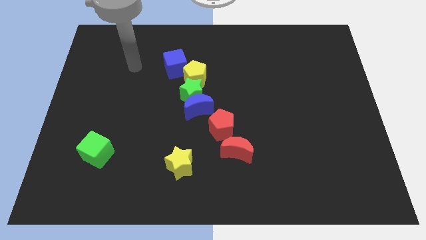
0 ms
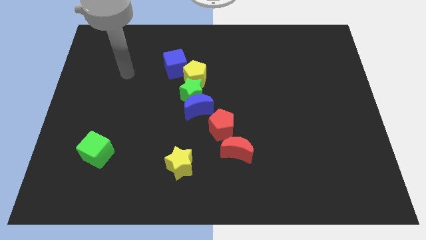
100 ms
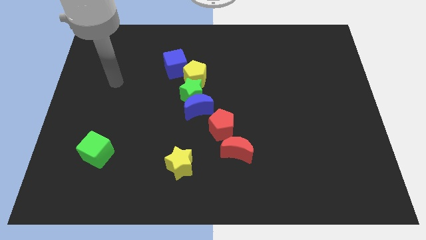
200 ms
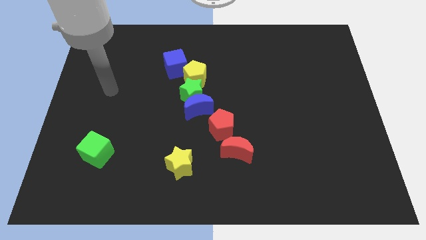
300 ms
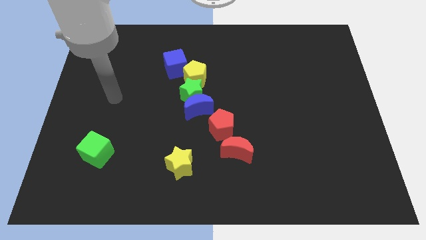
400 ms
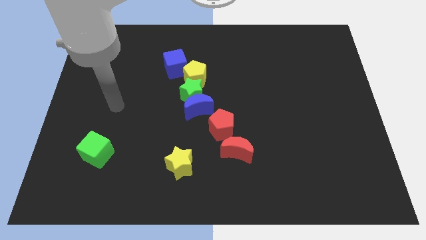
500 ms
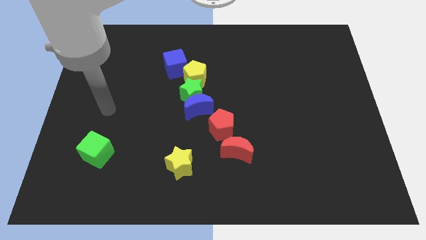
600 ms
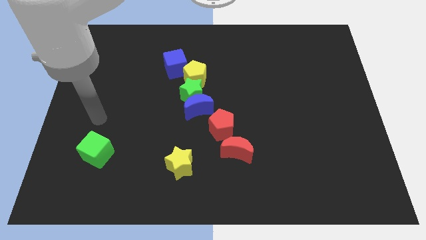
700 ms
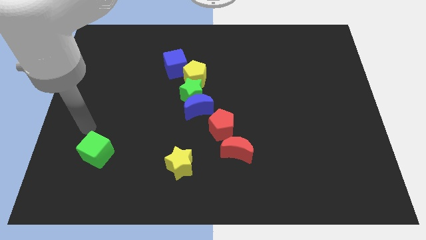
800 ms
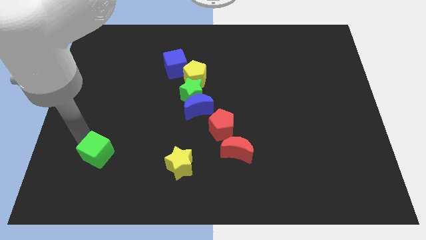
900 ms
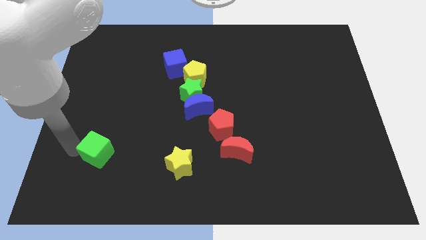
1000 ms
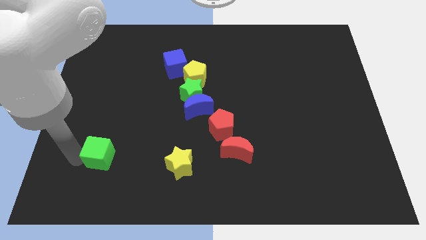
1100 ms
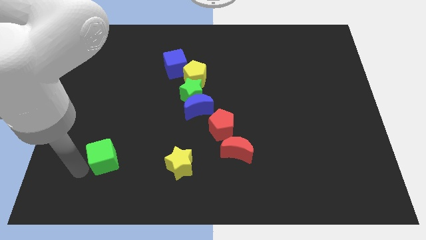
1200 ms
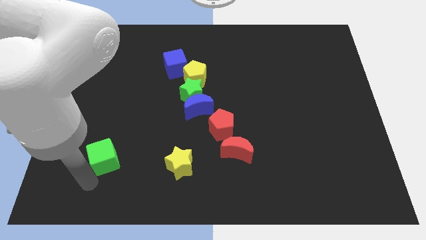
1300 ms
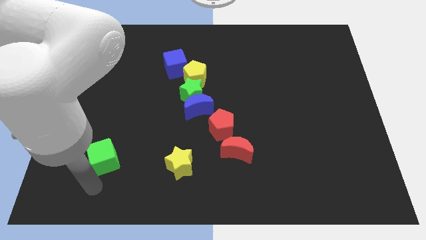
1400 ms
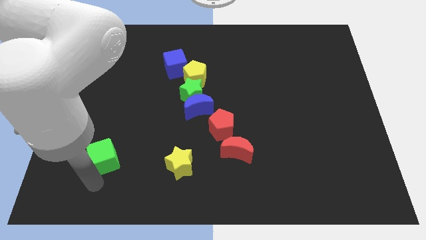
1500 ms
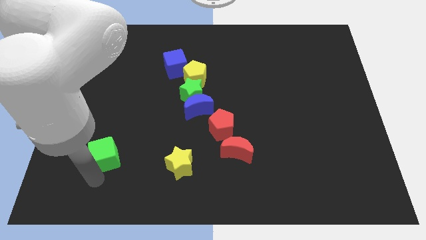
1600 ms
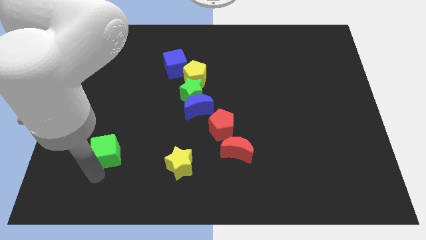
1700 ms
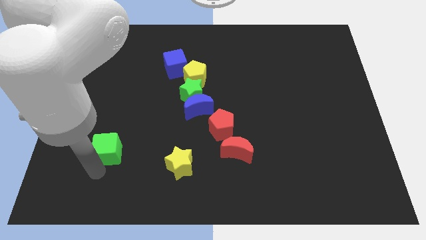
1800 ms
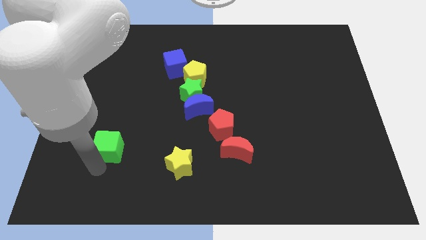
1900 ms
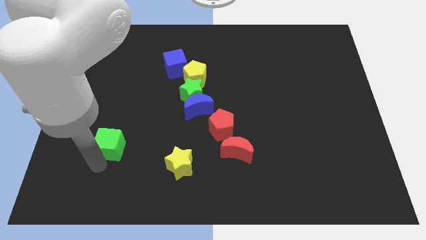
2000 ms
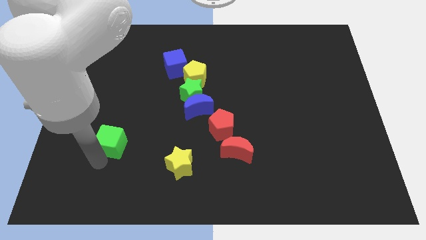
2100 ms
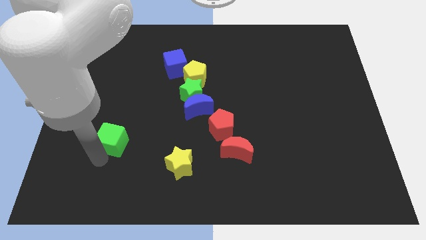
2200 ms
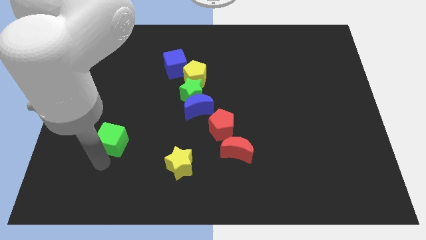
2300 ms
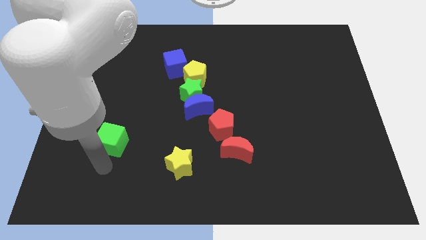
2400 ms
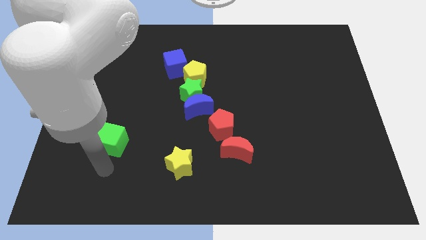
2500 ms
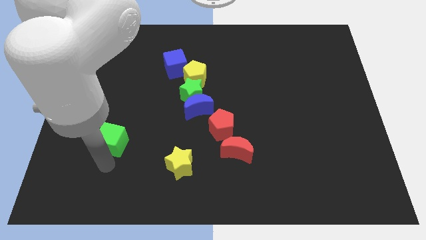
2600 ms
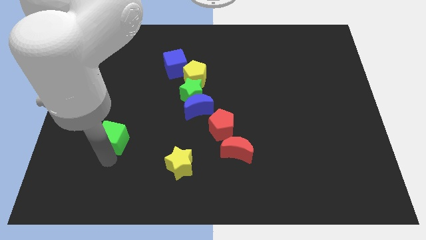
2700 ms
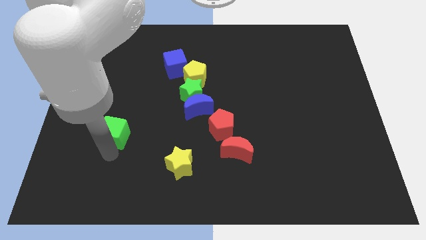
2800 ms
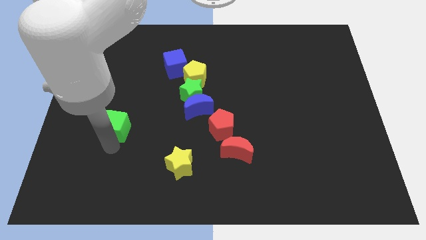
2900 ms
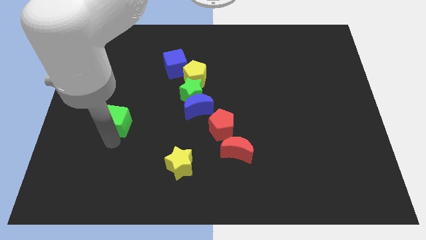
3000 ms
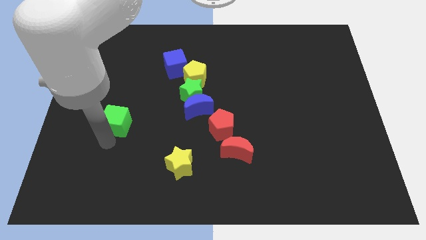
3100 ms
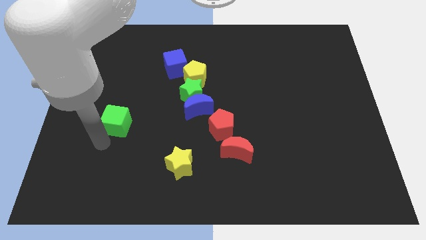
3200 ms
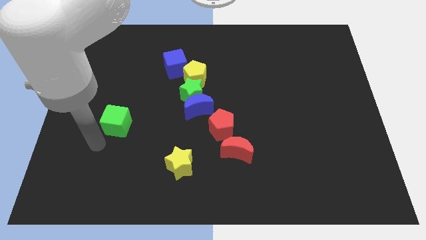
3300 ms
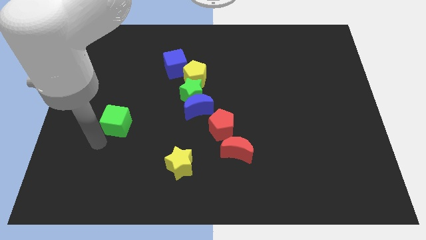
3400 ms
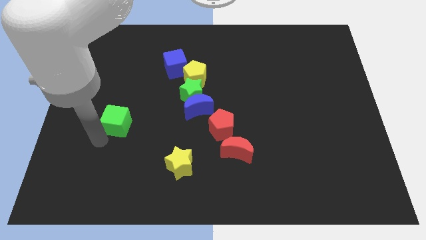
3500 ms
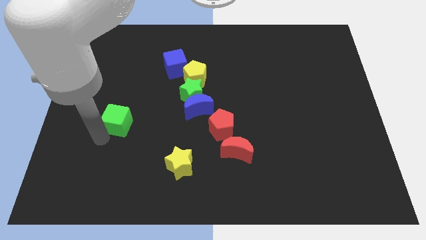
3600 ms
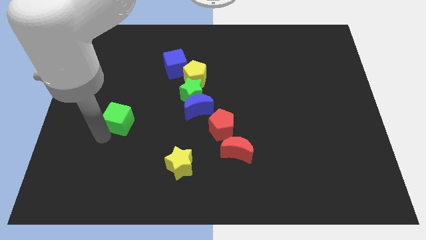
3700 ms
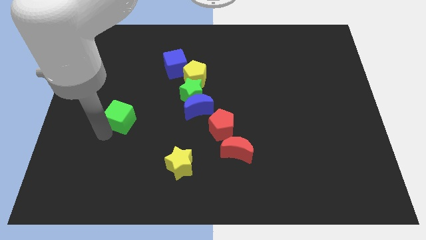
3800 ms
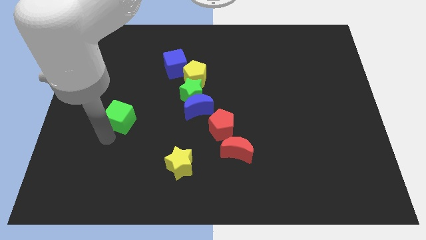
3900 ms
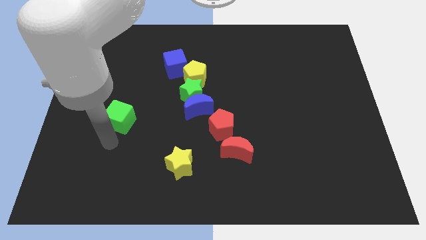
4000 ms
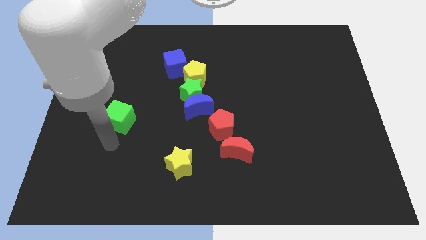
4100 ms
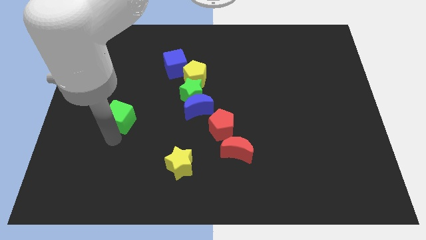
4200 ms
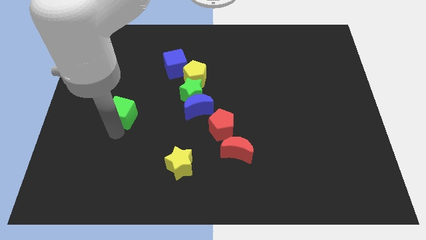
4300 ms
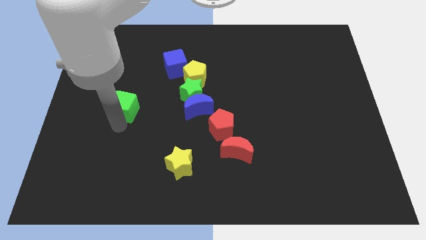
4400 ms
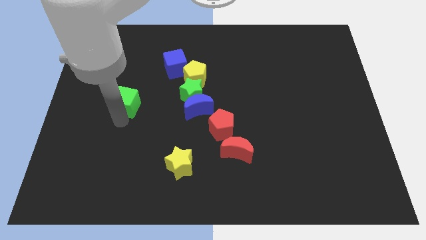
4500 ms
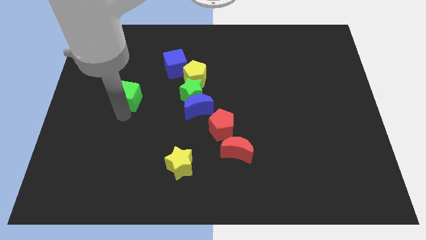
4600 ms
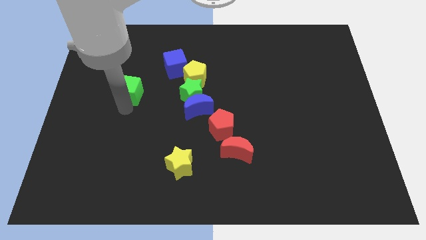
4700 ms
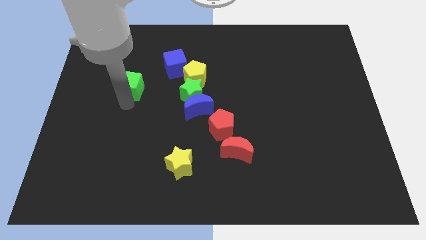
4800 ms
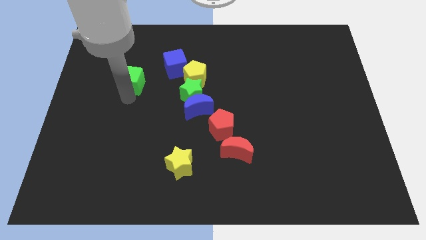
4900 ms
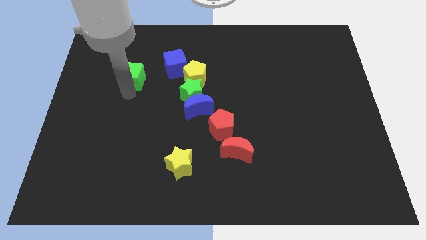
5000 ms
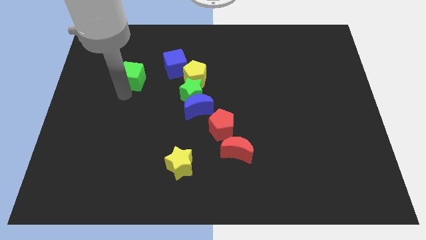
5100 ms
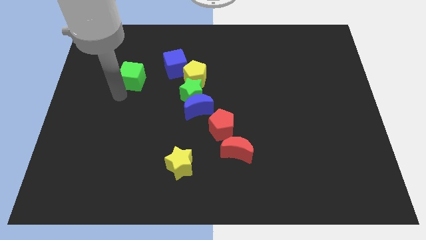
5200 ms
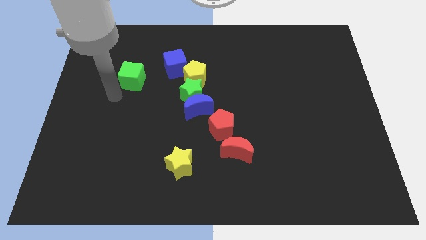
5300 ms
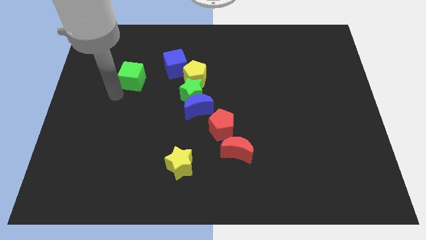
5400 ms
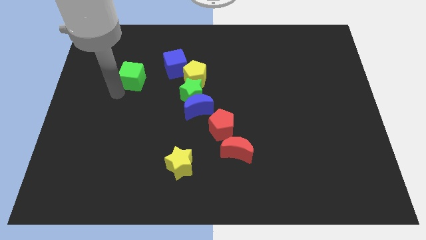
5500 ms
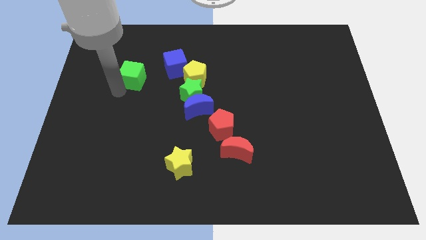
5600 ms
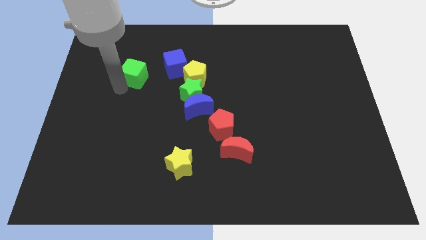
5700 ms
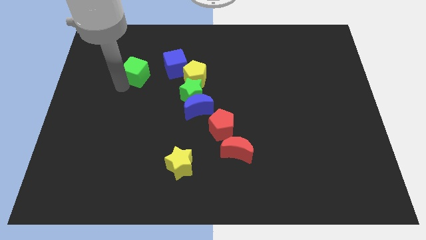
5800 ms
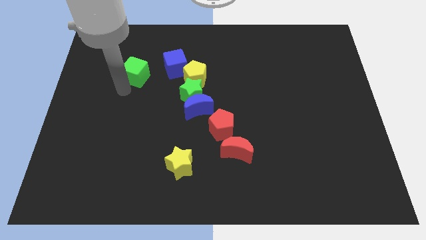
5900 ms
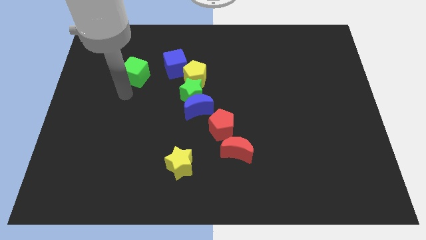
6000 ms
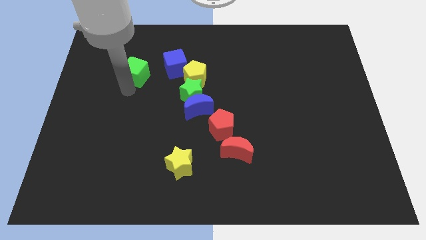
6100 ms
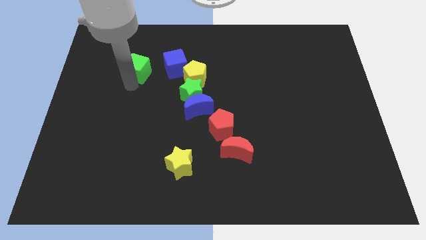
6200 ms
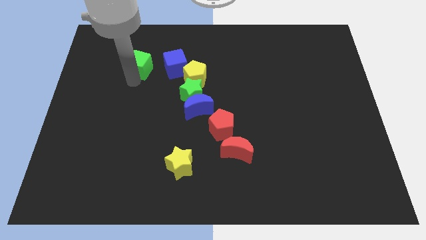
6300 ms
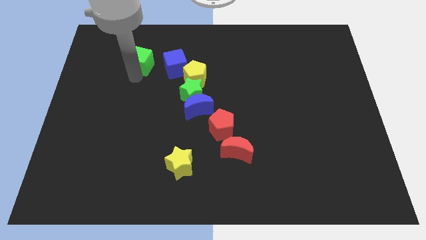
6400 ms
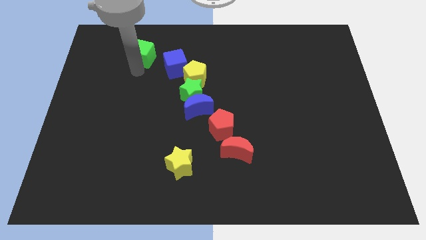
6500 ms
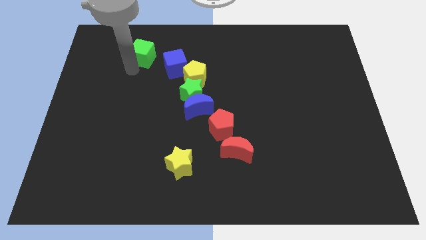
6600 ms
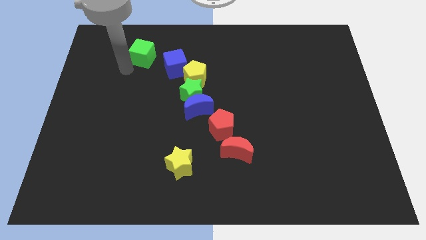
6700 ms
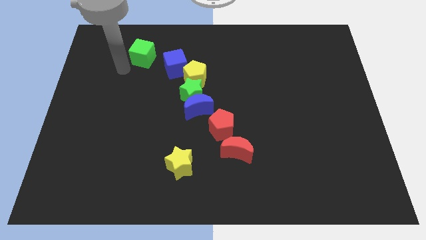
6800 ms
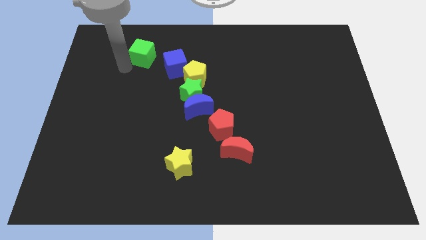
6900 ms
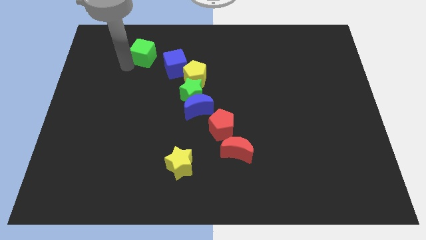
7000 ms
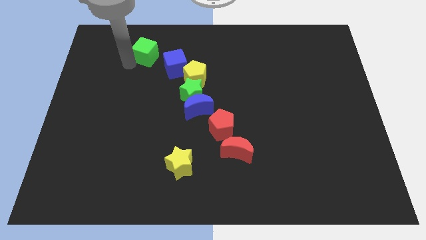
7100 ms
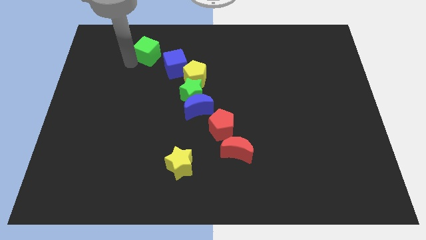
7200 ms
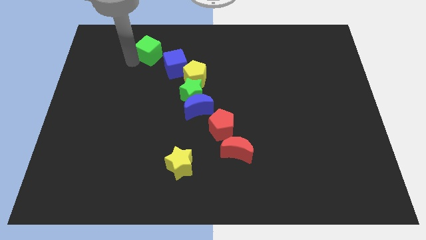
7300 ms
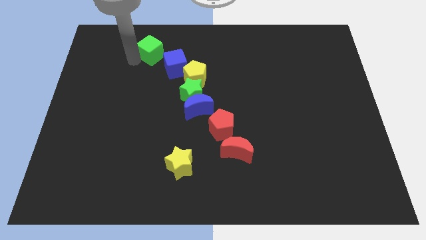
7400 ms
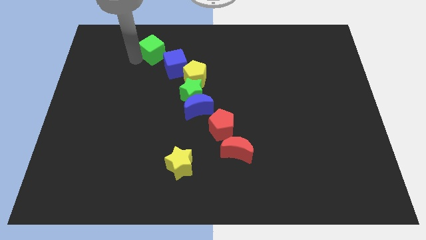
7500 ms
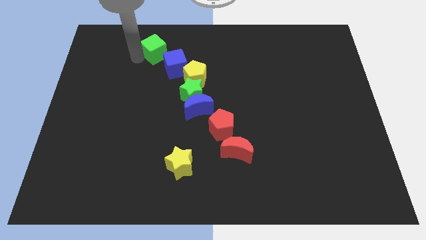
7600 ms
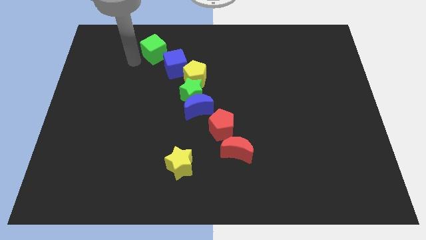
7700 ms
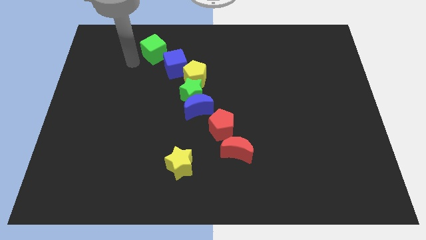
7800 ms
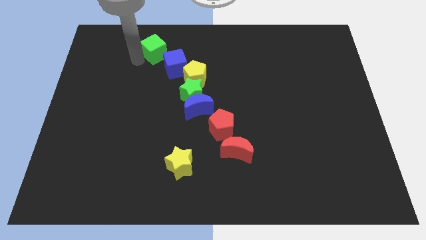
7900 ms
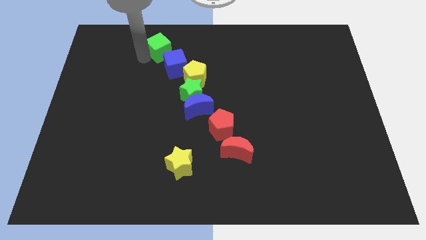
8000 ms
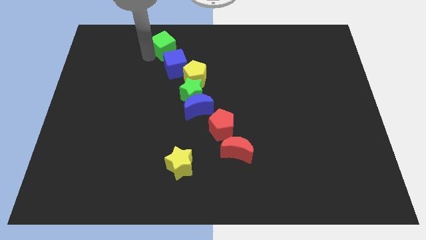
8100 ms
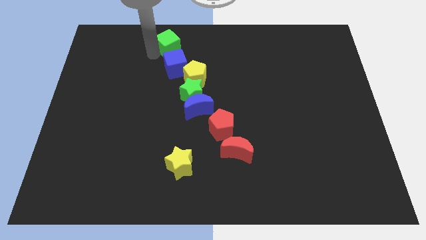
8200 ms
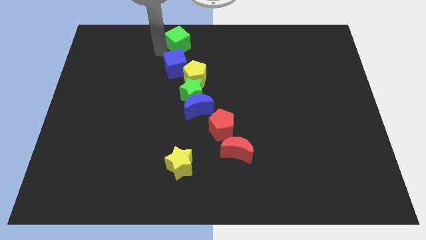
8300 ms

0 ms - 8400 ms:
slide the green cube to the towards your base
